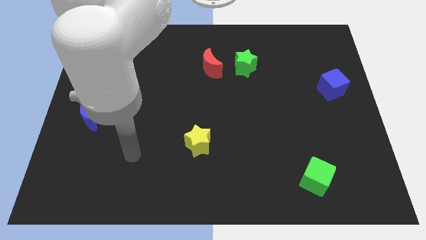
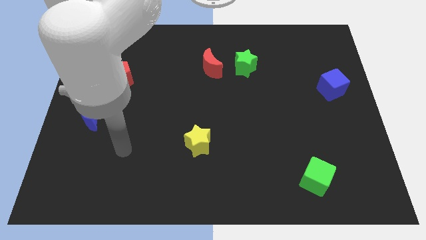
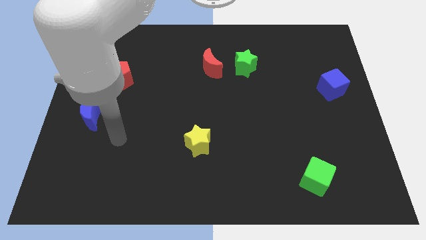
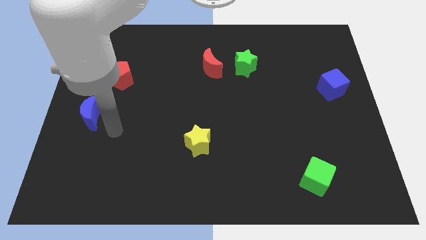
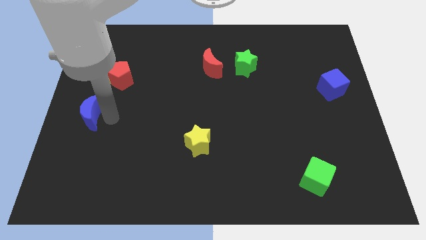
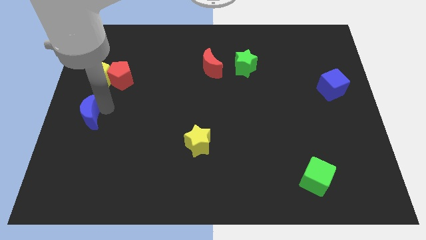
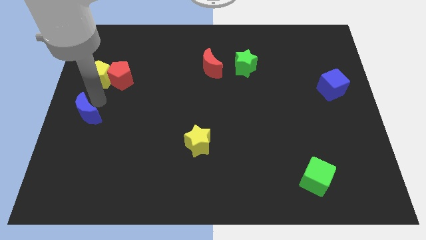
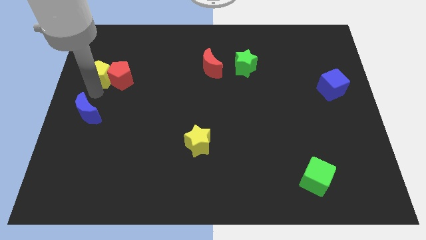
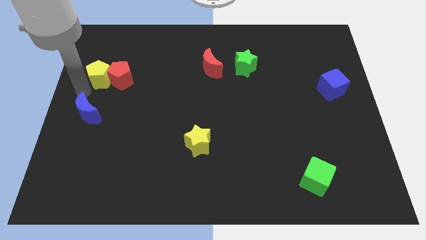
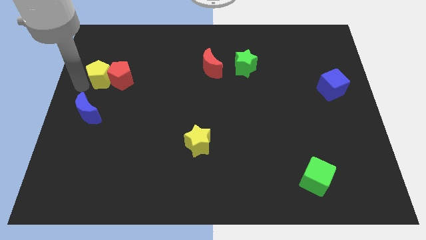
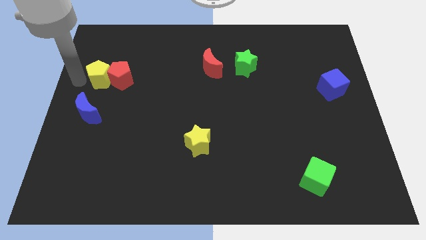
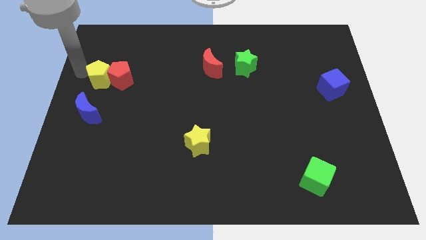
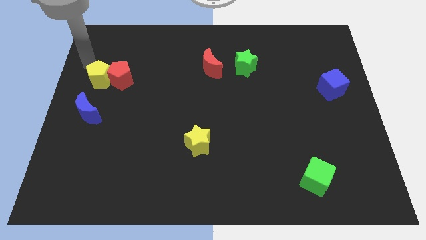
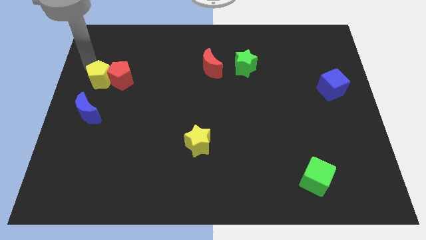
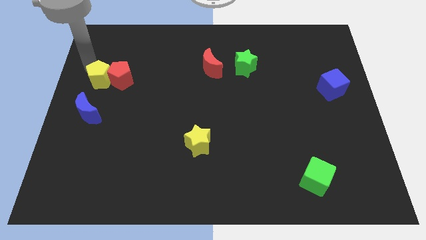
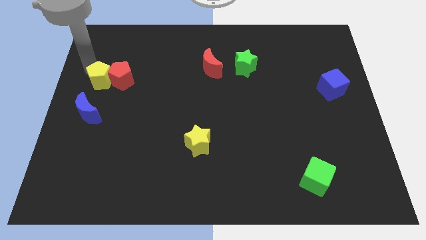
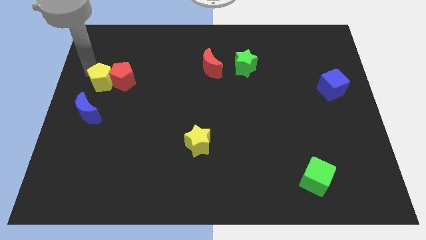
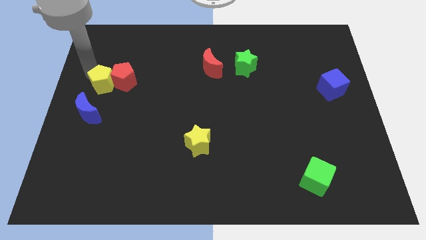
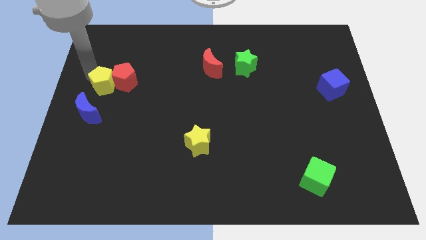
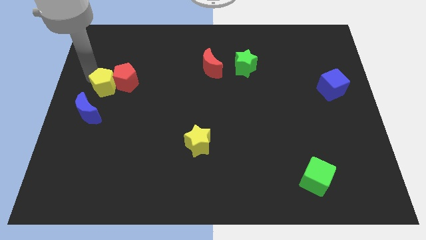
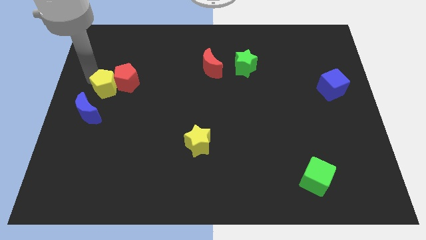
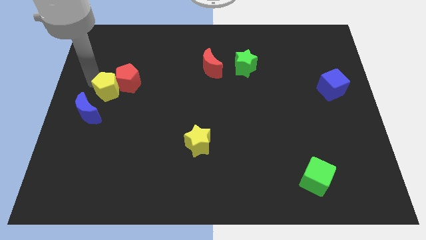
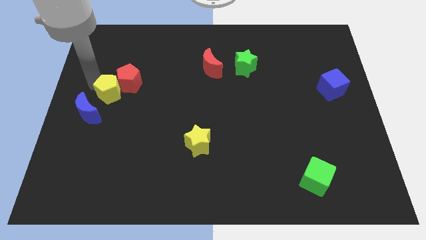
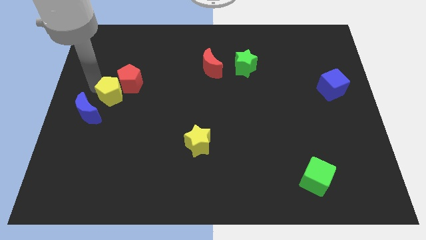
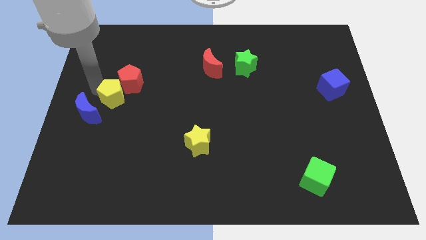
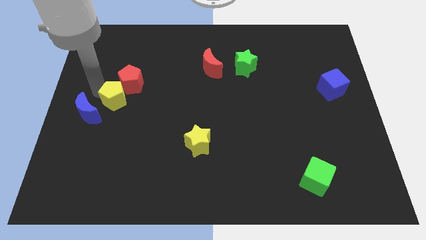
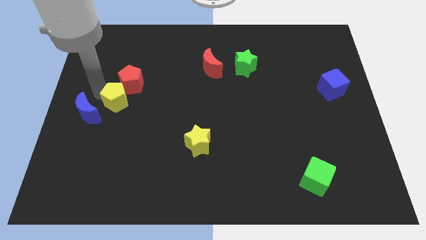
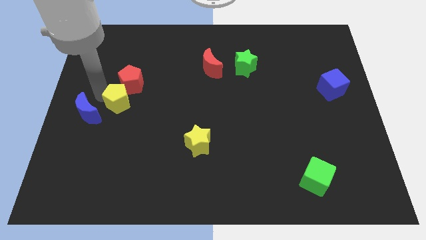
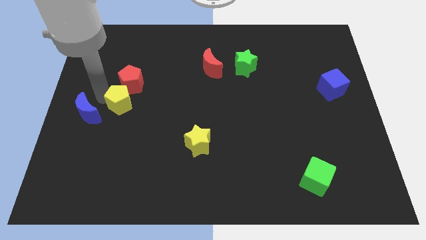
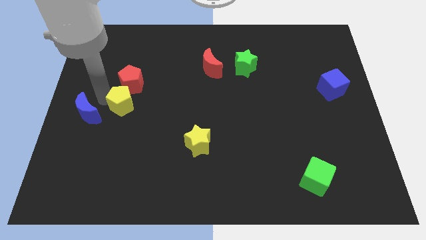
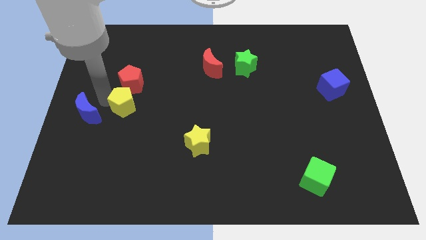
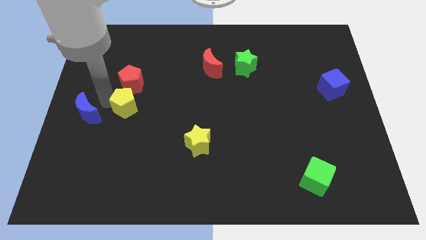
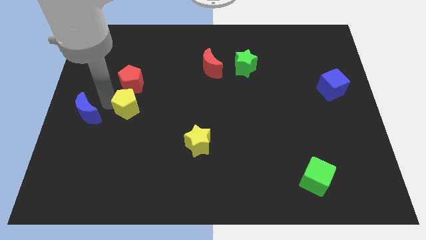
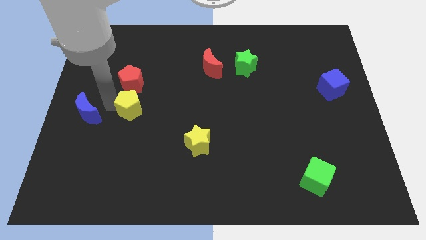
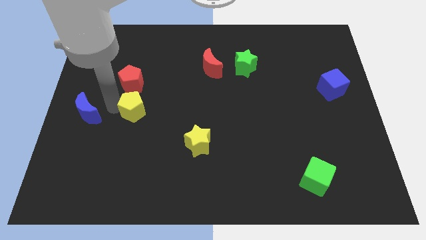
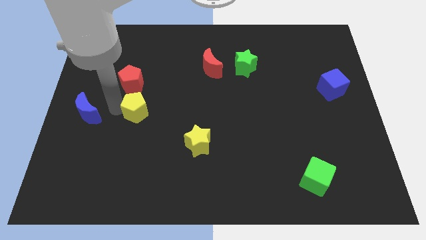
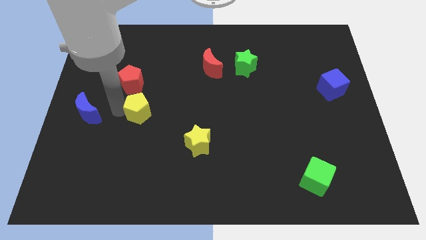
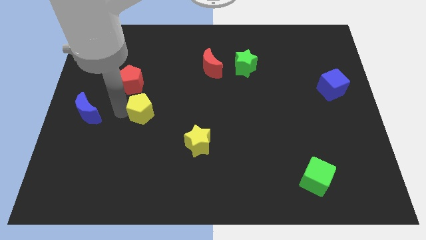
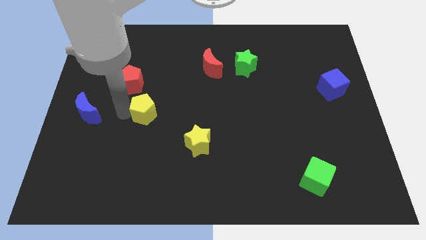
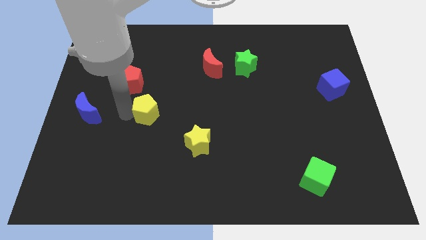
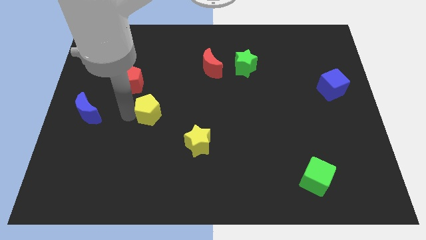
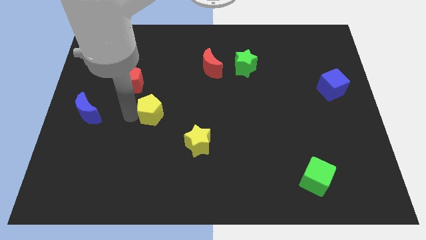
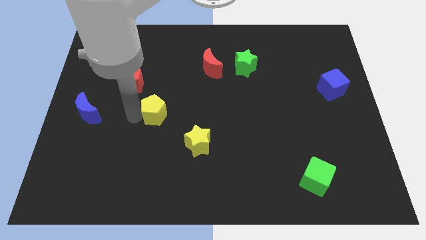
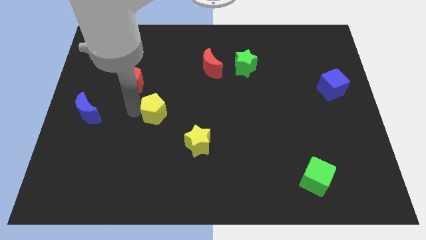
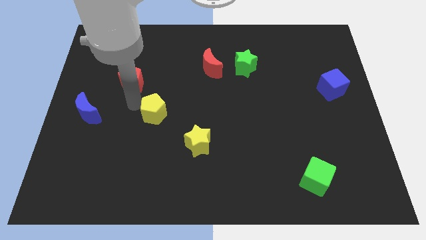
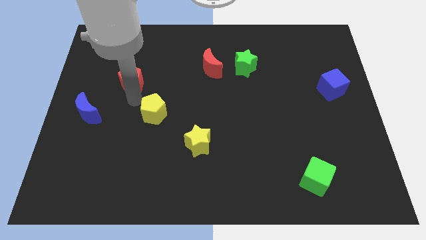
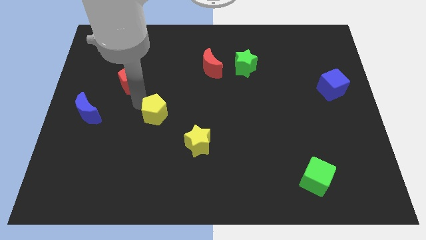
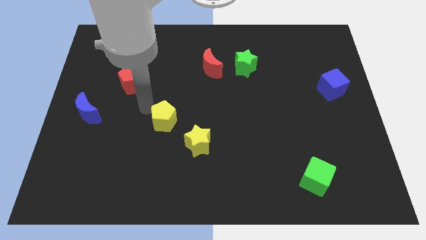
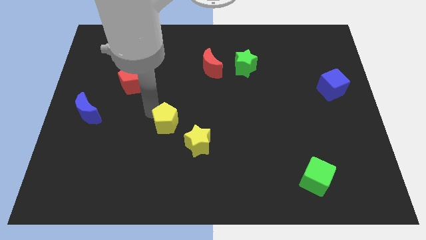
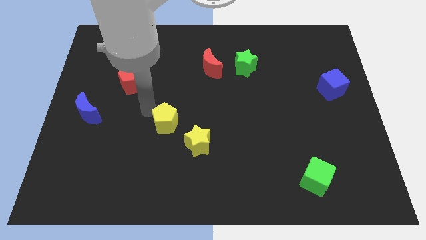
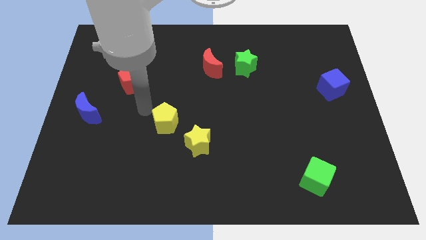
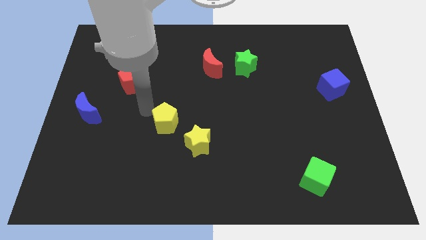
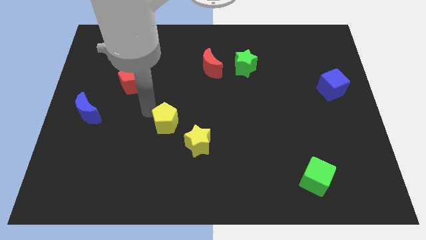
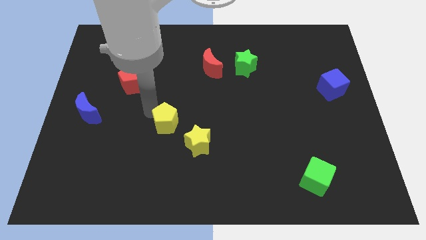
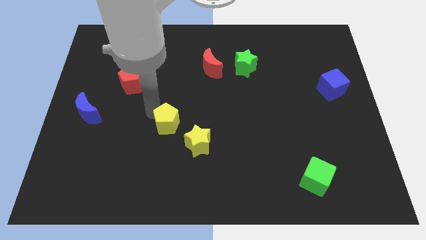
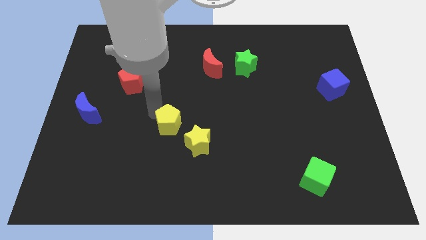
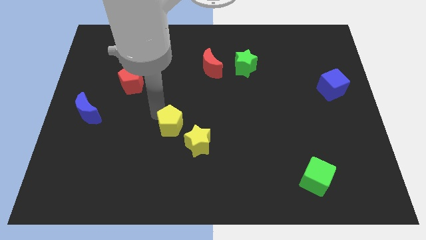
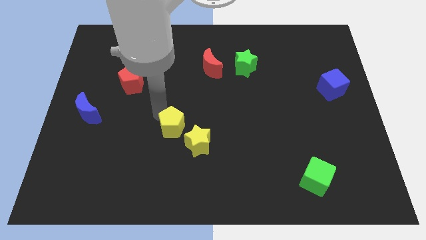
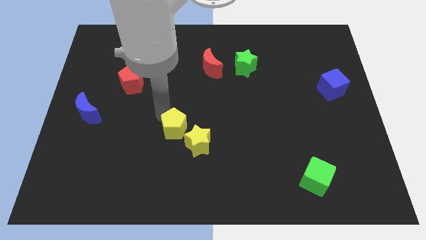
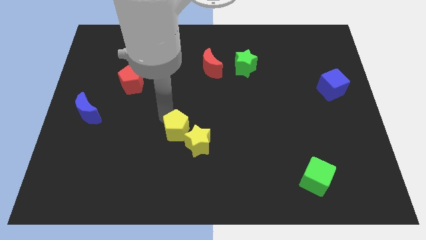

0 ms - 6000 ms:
put the yellow pentagon close to the yellow star

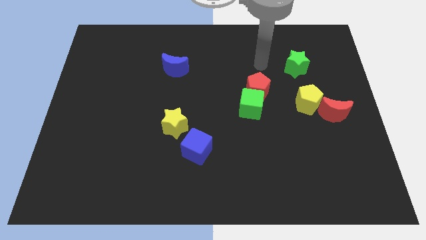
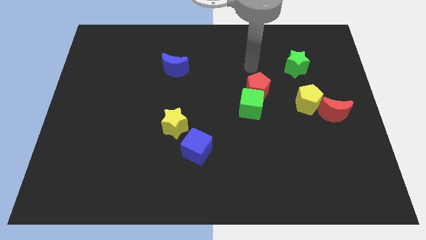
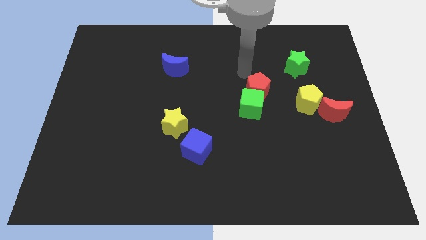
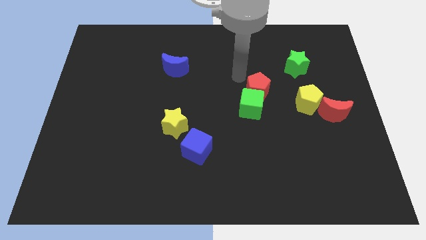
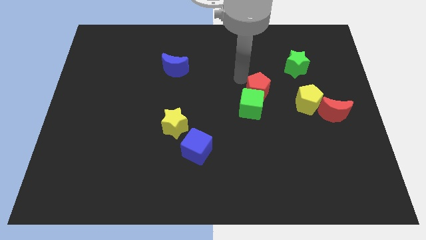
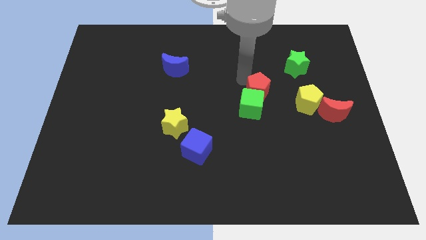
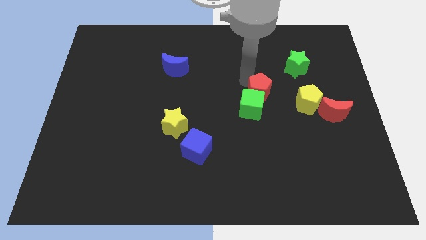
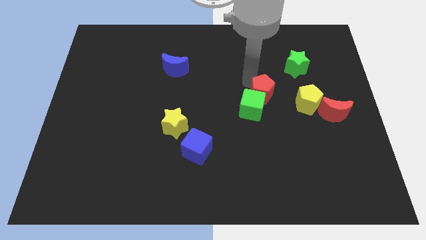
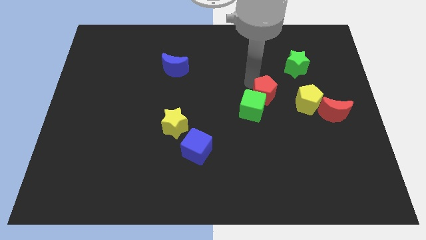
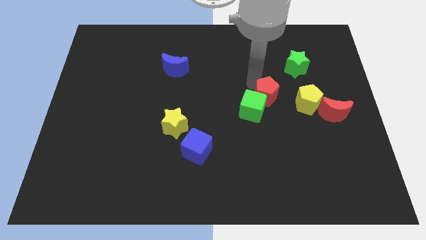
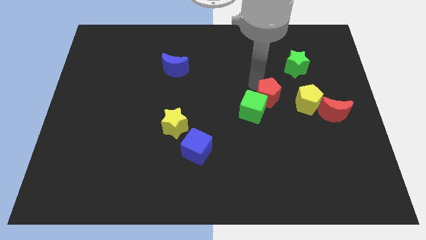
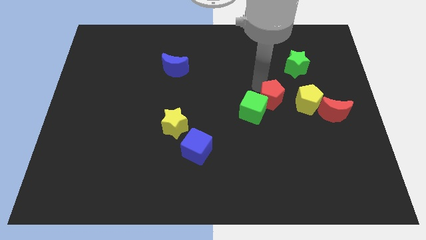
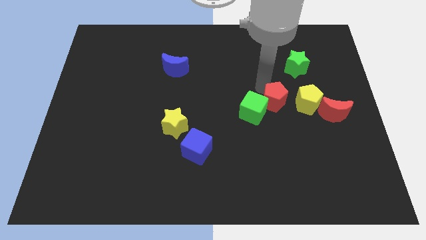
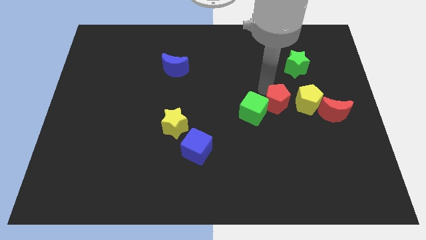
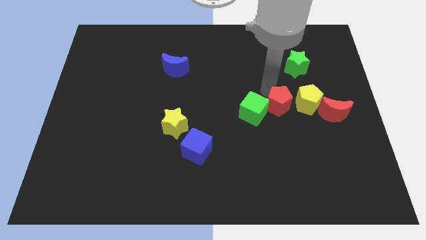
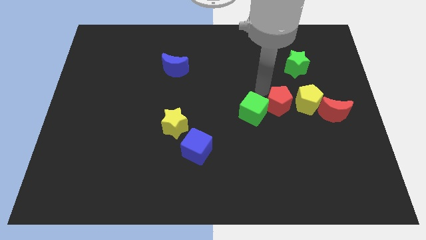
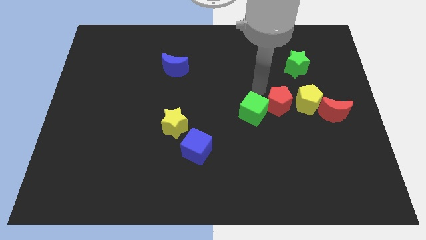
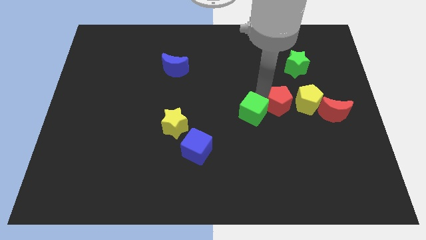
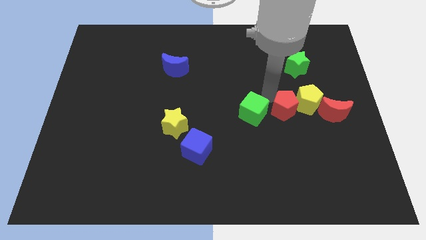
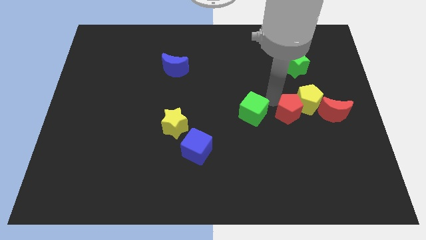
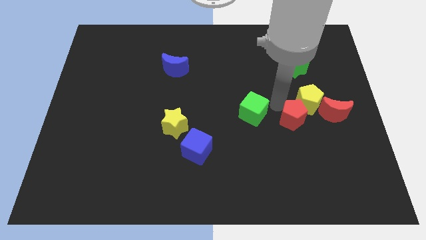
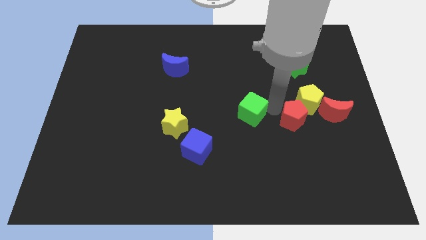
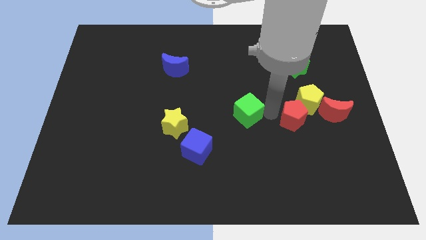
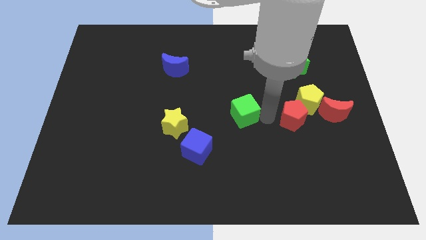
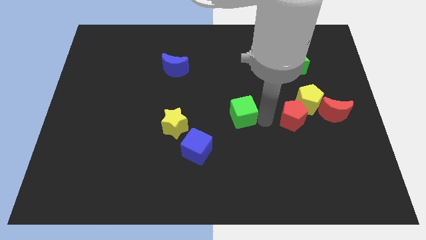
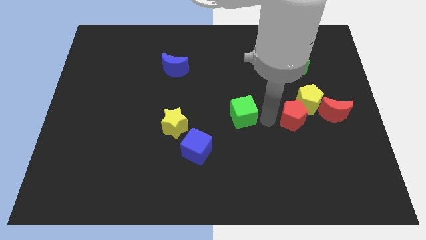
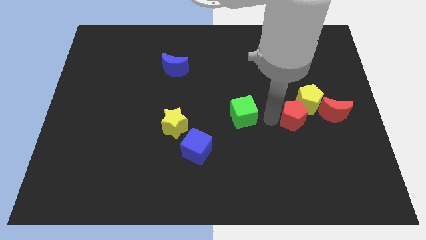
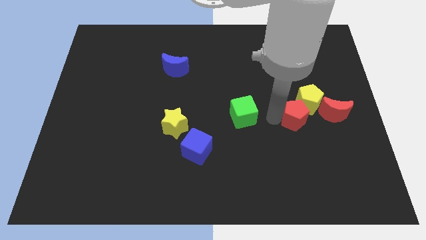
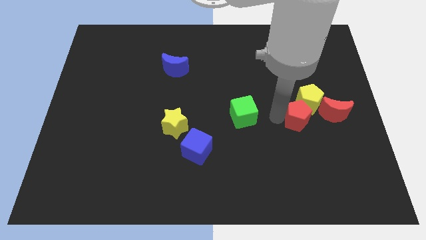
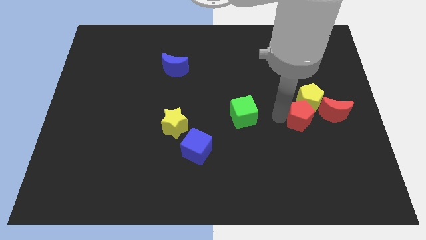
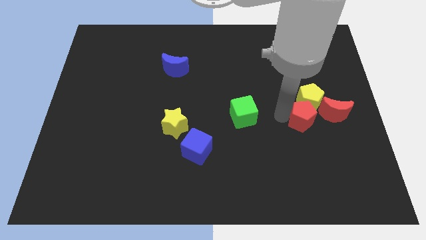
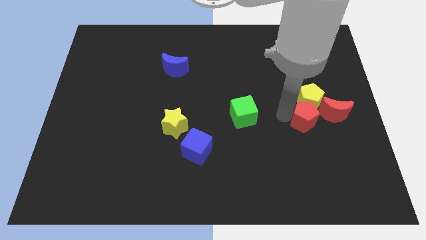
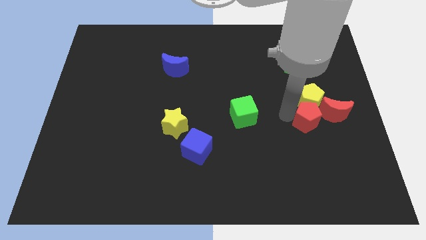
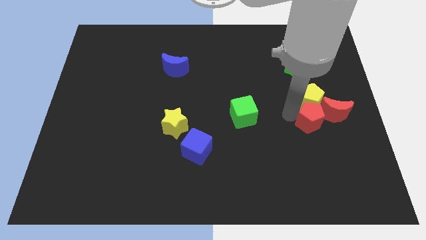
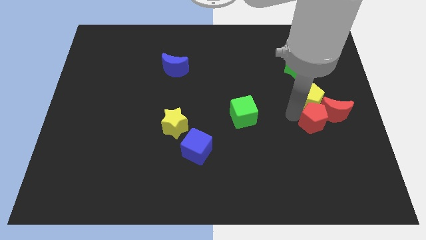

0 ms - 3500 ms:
move the red pentagon close to the red moon
